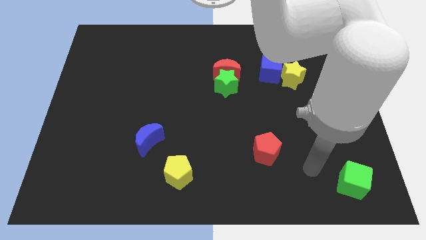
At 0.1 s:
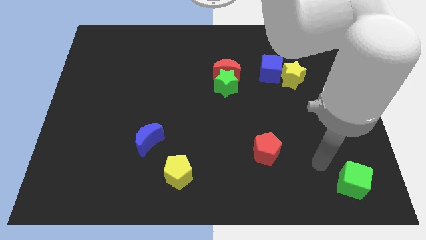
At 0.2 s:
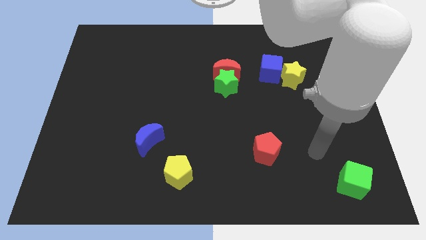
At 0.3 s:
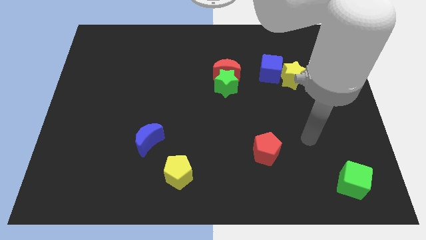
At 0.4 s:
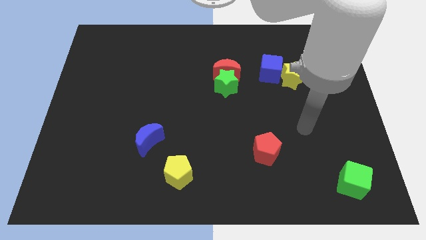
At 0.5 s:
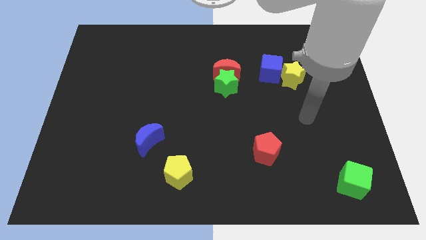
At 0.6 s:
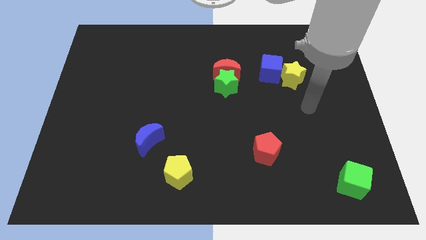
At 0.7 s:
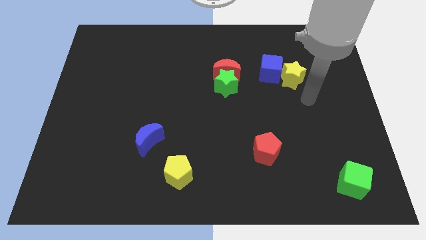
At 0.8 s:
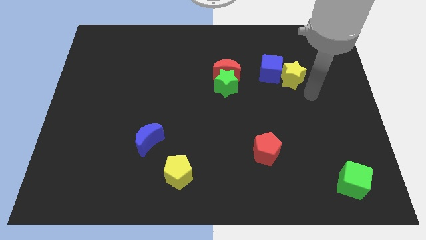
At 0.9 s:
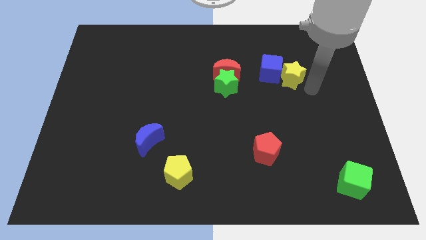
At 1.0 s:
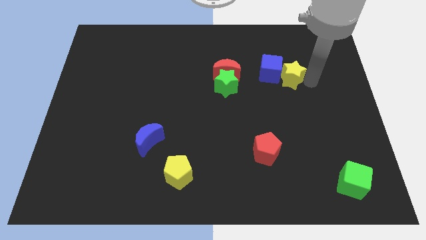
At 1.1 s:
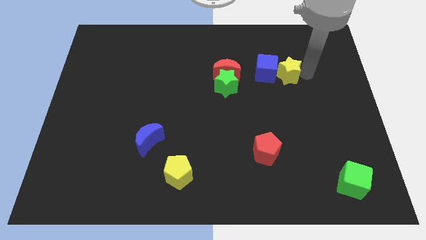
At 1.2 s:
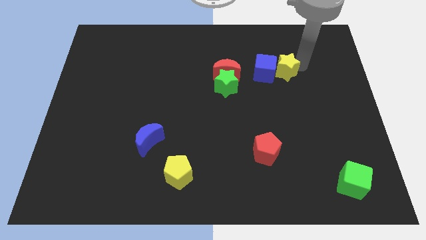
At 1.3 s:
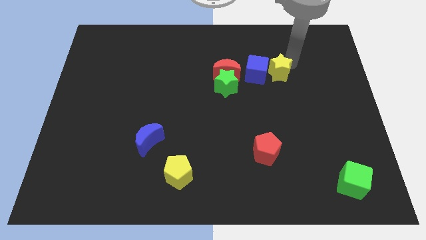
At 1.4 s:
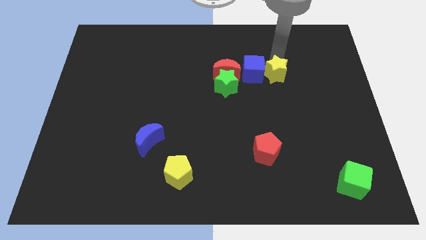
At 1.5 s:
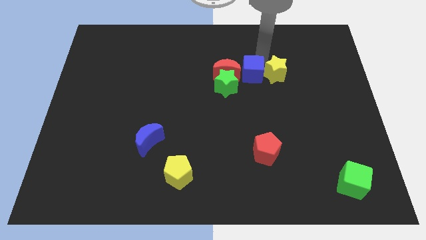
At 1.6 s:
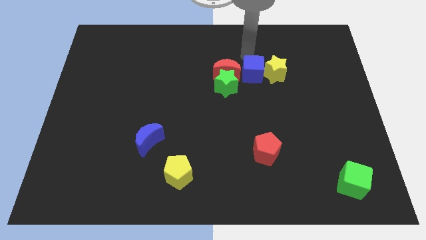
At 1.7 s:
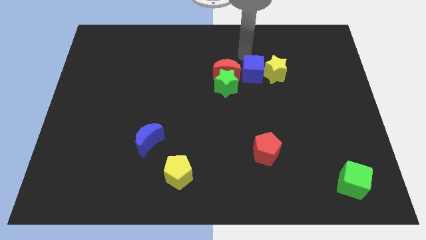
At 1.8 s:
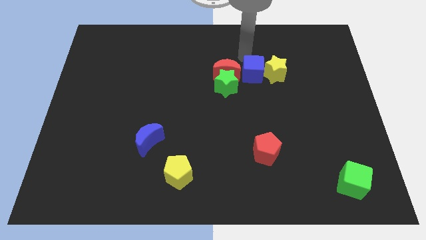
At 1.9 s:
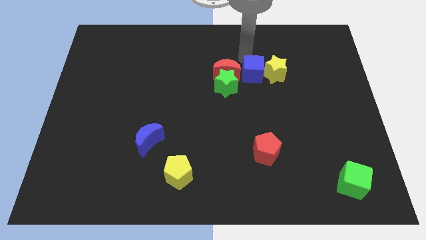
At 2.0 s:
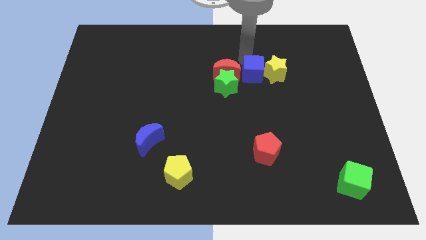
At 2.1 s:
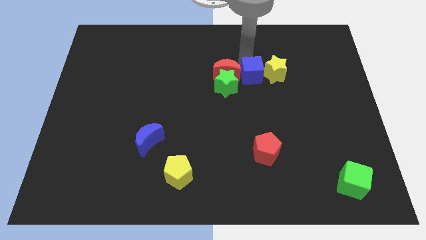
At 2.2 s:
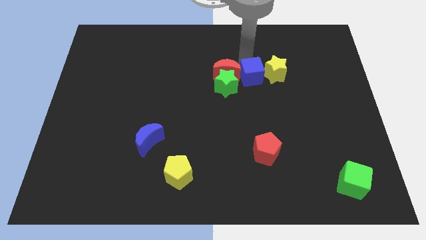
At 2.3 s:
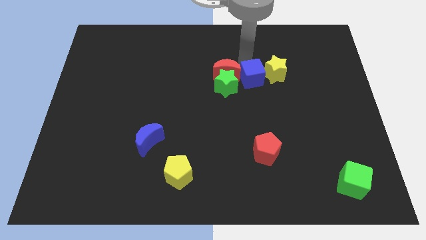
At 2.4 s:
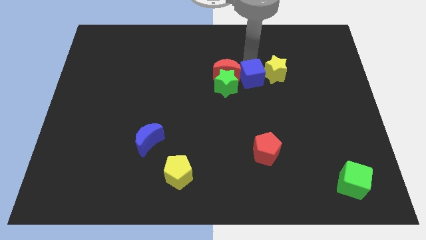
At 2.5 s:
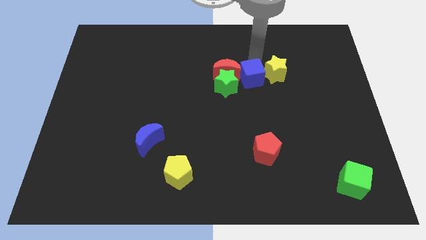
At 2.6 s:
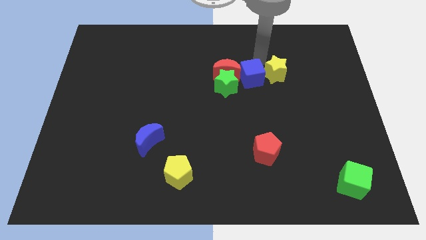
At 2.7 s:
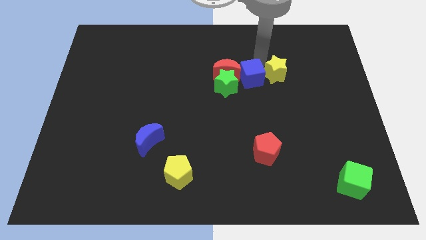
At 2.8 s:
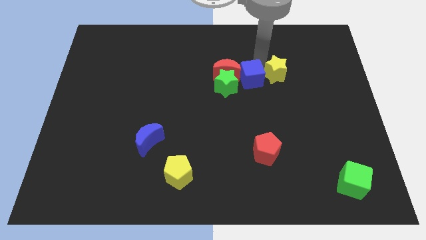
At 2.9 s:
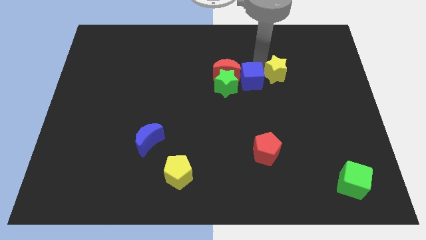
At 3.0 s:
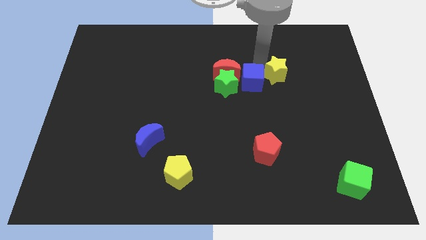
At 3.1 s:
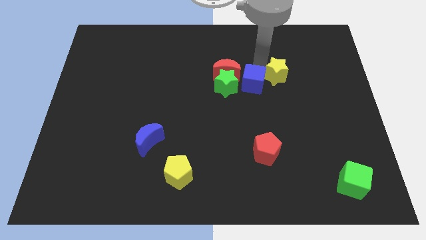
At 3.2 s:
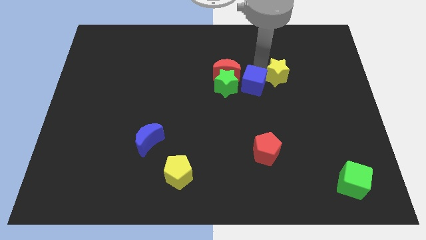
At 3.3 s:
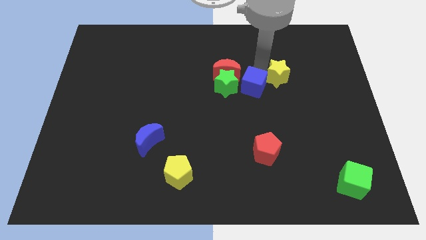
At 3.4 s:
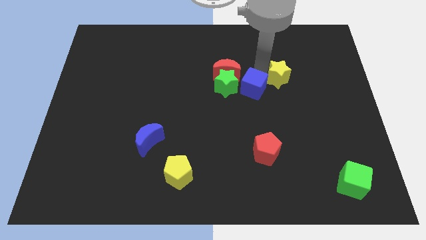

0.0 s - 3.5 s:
push the blue cube diagonally down and to the left somewhat

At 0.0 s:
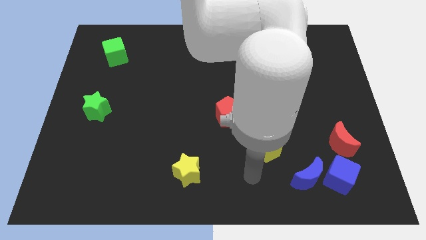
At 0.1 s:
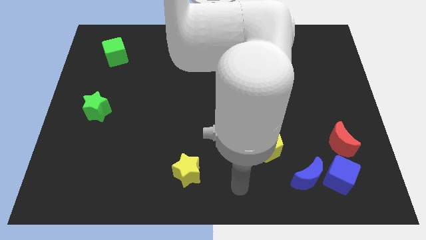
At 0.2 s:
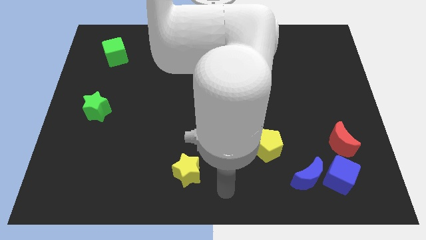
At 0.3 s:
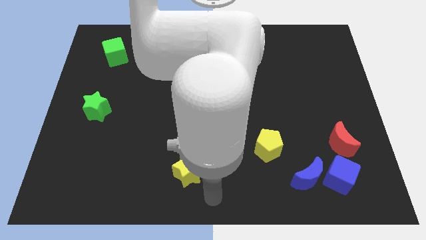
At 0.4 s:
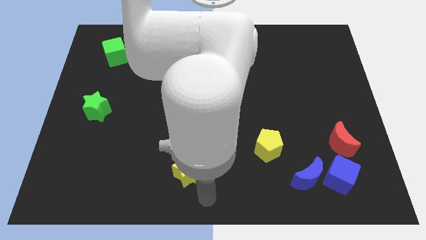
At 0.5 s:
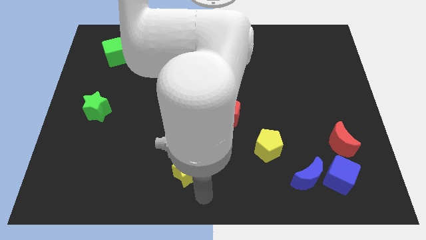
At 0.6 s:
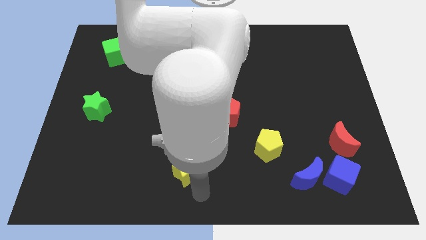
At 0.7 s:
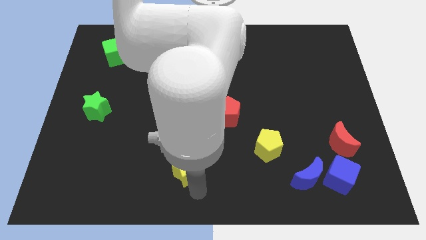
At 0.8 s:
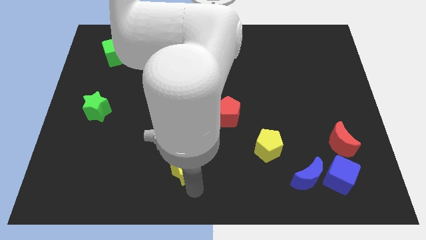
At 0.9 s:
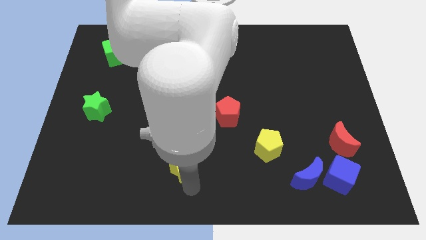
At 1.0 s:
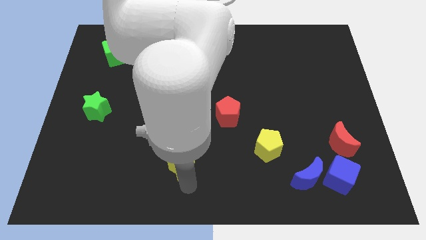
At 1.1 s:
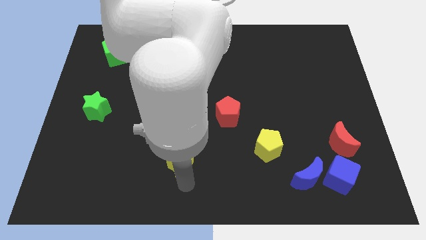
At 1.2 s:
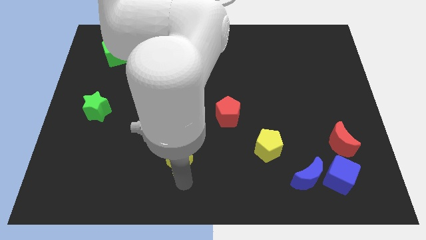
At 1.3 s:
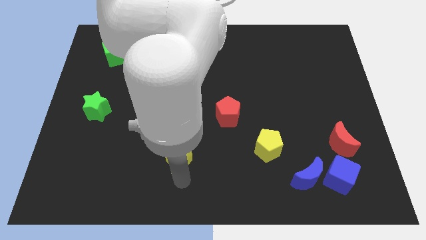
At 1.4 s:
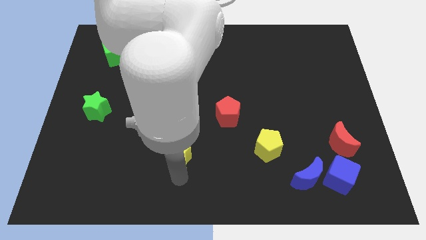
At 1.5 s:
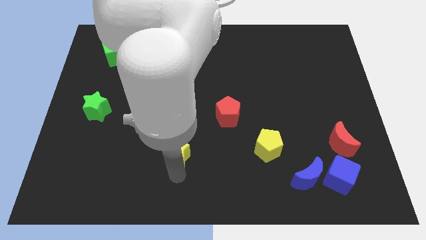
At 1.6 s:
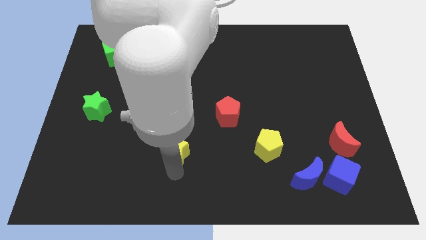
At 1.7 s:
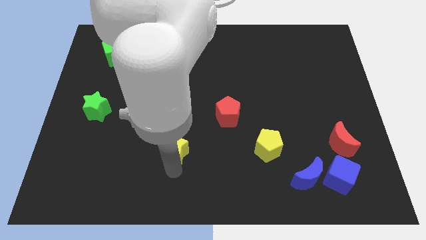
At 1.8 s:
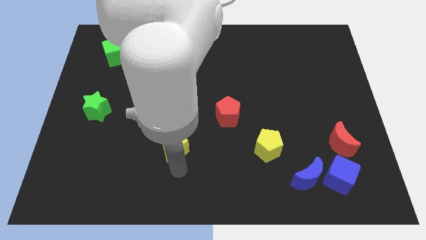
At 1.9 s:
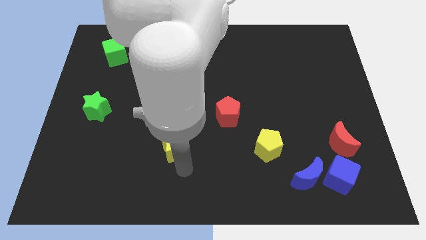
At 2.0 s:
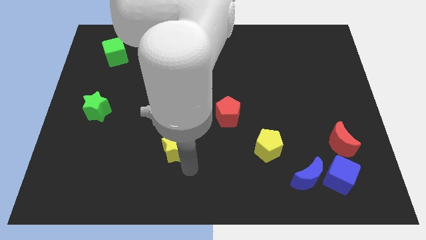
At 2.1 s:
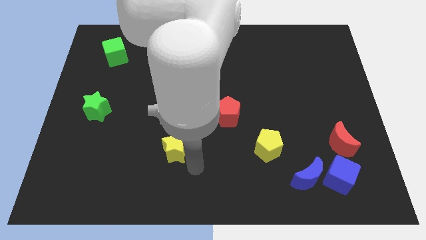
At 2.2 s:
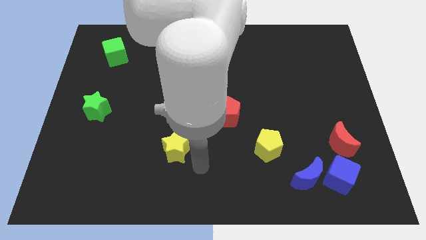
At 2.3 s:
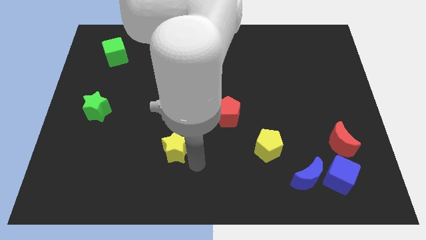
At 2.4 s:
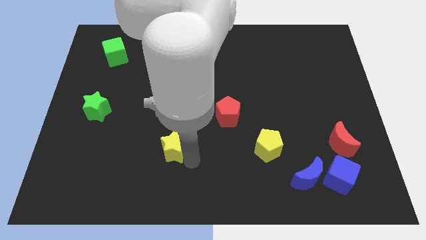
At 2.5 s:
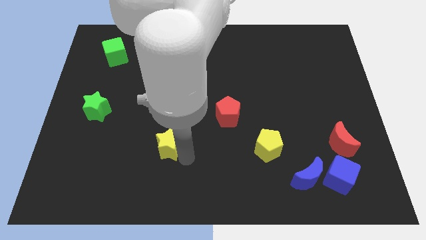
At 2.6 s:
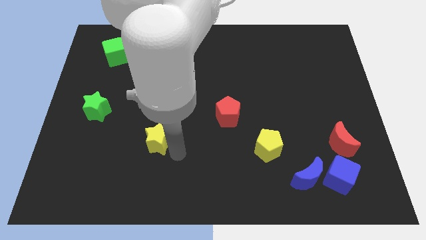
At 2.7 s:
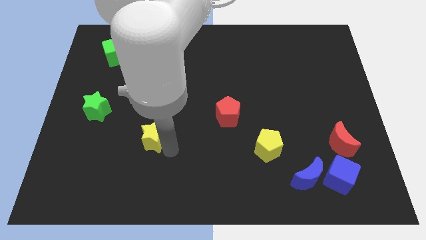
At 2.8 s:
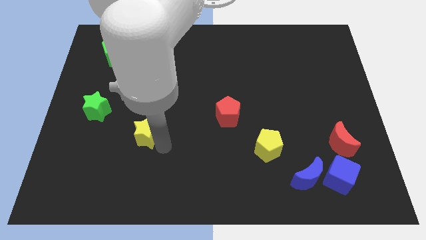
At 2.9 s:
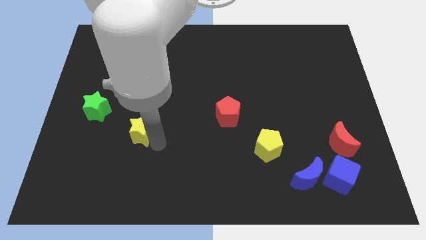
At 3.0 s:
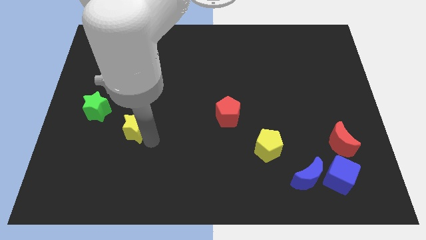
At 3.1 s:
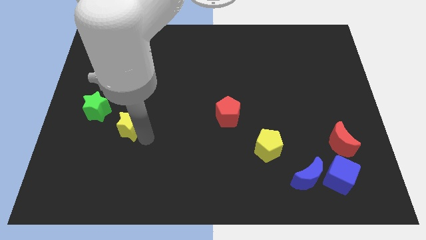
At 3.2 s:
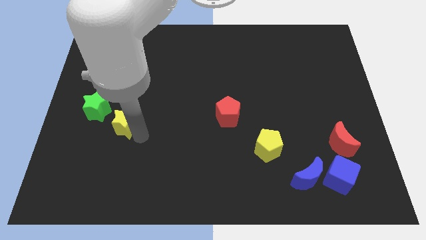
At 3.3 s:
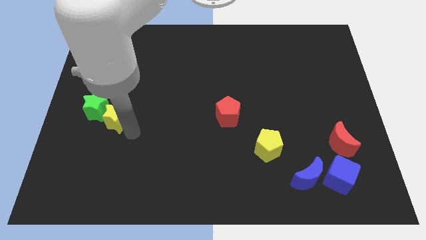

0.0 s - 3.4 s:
slide the yellow star up and then left

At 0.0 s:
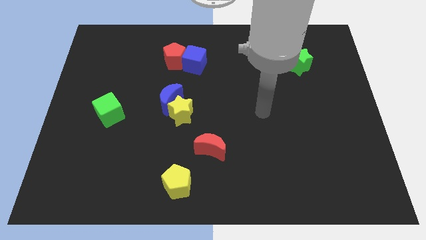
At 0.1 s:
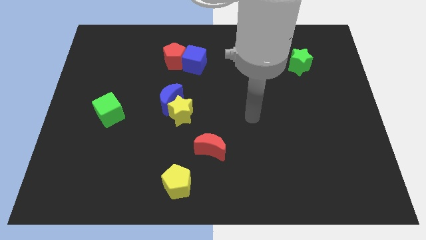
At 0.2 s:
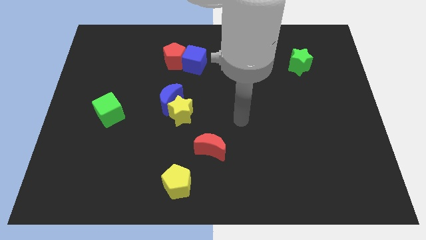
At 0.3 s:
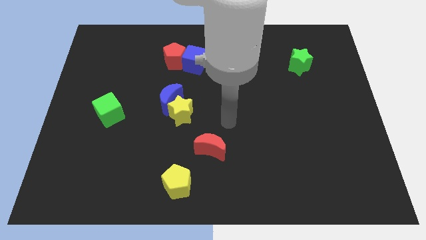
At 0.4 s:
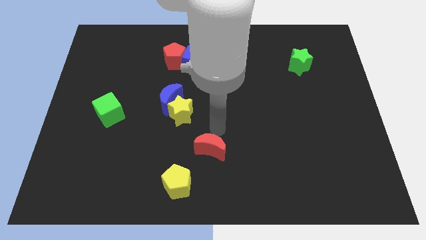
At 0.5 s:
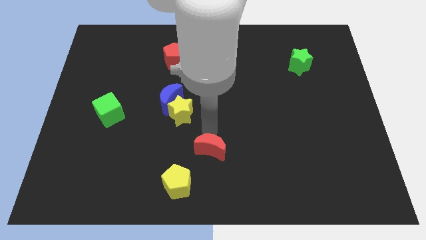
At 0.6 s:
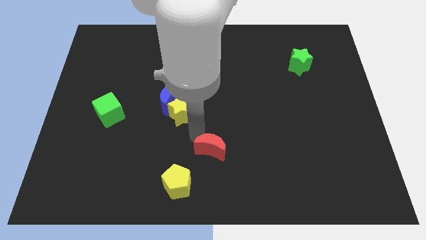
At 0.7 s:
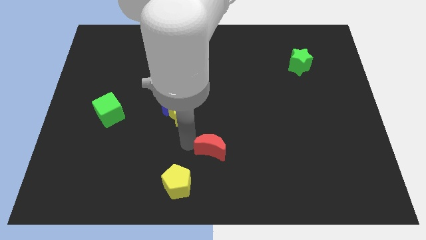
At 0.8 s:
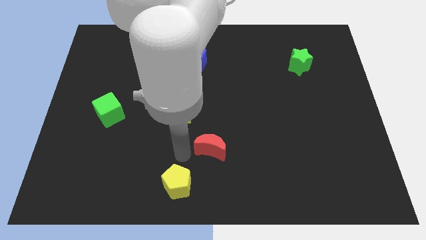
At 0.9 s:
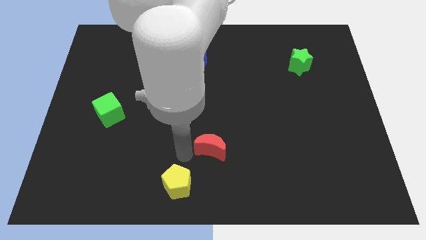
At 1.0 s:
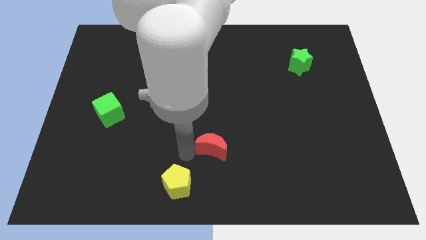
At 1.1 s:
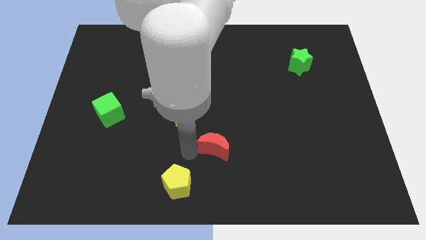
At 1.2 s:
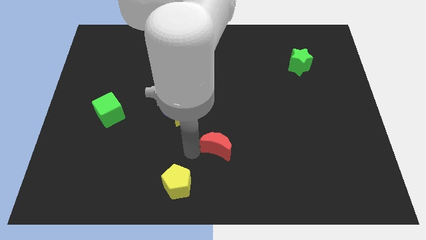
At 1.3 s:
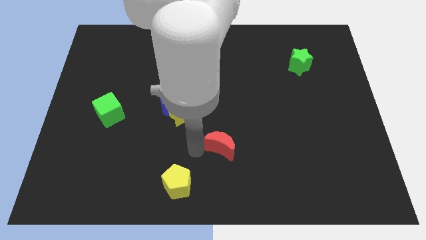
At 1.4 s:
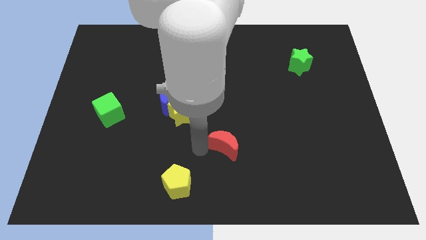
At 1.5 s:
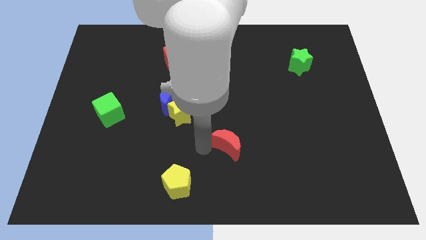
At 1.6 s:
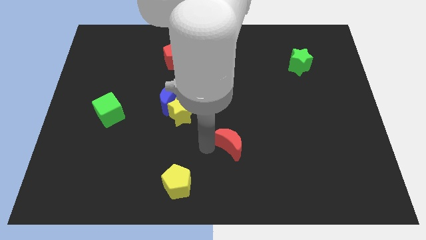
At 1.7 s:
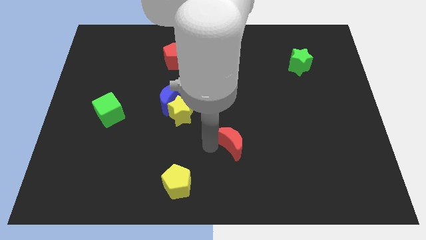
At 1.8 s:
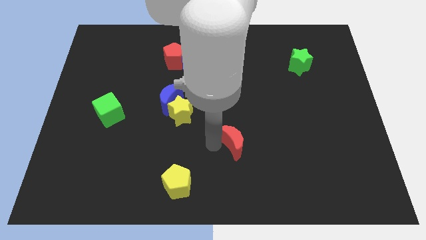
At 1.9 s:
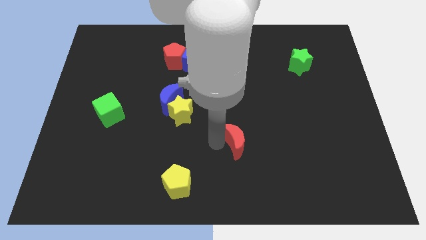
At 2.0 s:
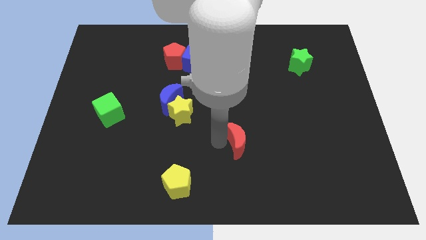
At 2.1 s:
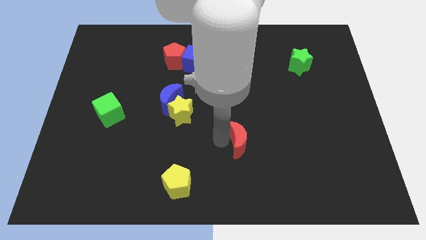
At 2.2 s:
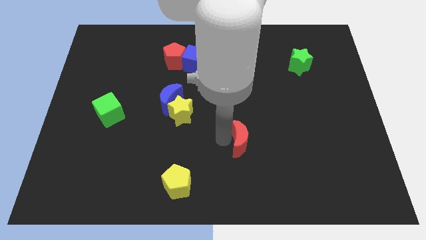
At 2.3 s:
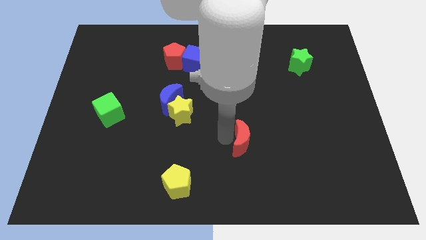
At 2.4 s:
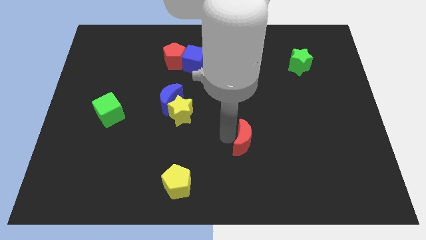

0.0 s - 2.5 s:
slightly move the red moon to the right
